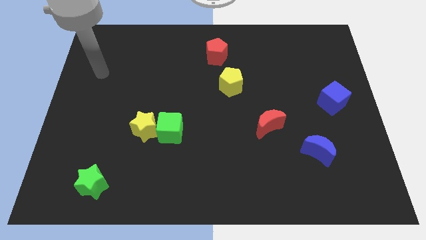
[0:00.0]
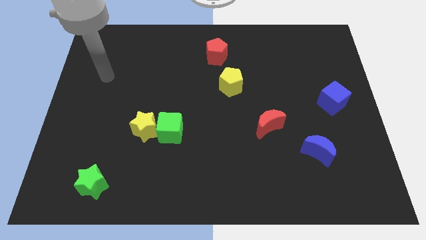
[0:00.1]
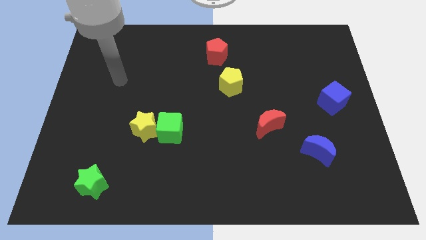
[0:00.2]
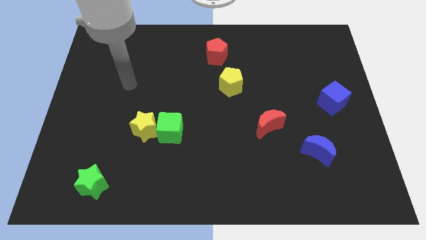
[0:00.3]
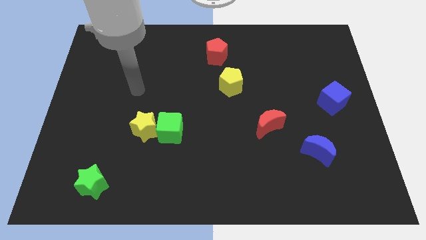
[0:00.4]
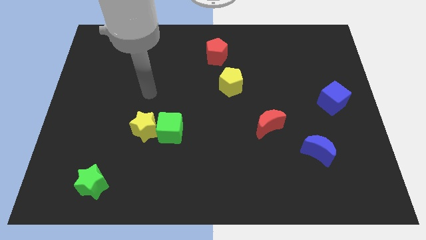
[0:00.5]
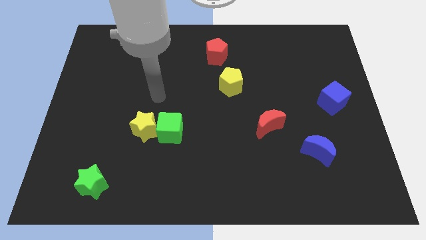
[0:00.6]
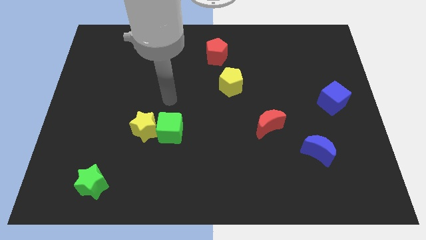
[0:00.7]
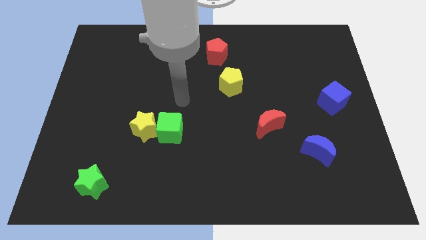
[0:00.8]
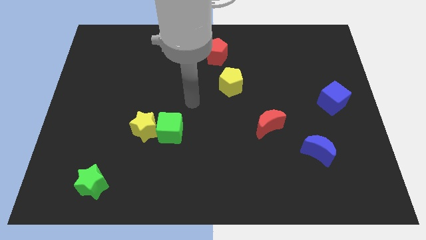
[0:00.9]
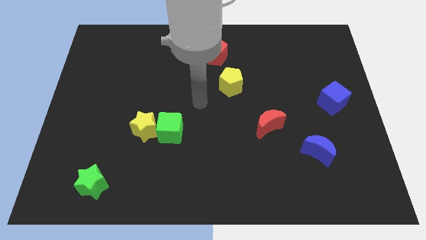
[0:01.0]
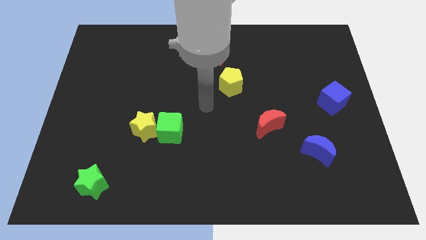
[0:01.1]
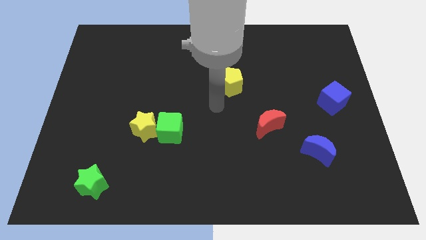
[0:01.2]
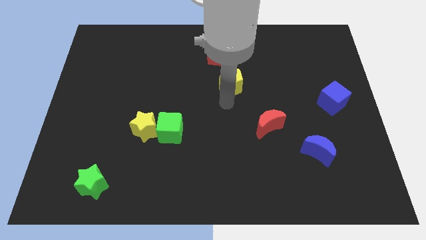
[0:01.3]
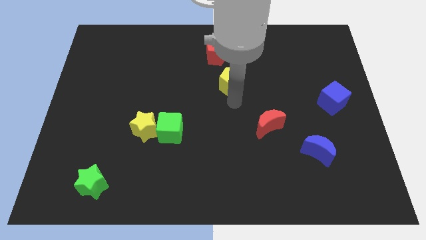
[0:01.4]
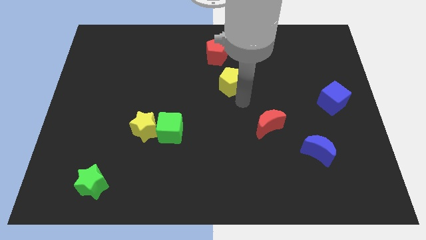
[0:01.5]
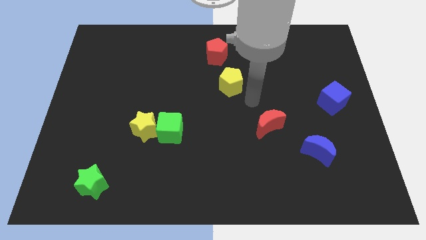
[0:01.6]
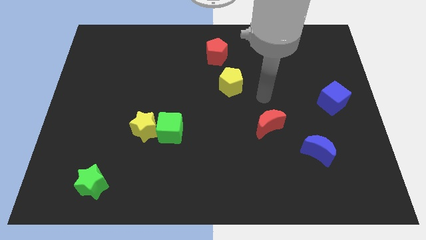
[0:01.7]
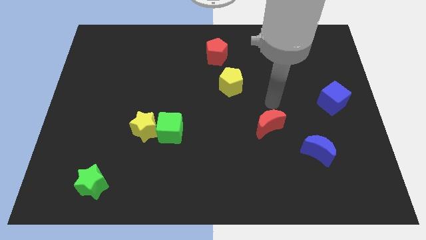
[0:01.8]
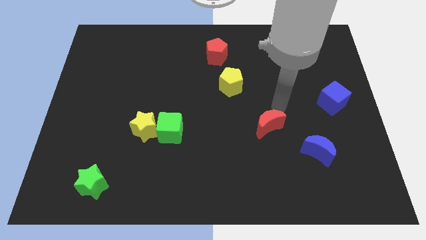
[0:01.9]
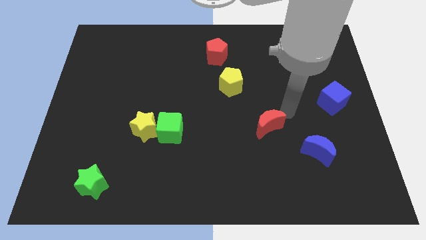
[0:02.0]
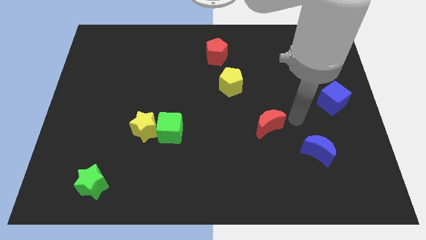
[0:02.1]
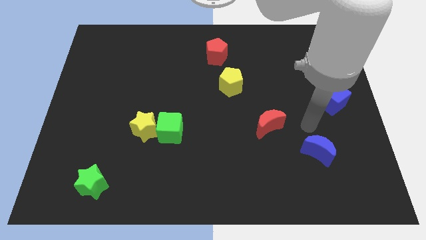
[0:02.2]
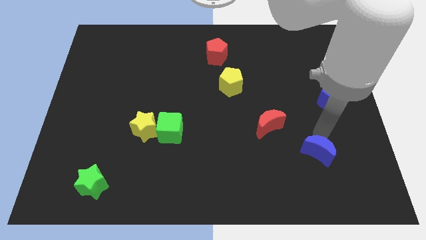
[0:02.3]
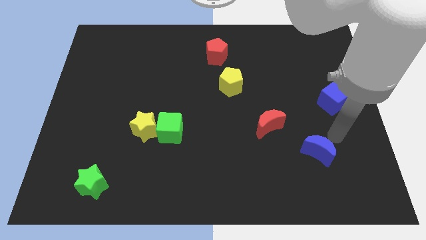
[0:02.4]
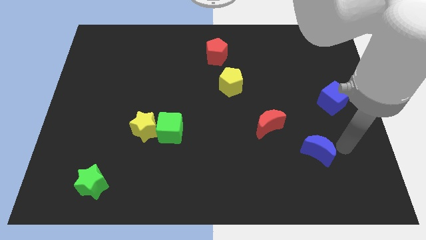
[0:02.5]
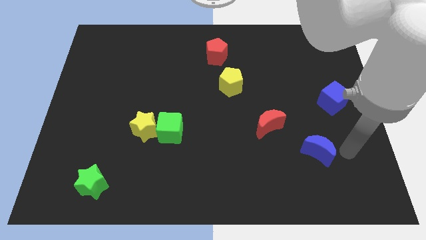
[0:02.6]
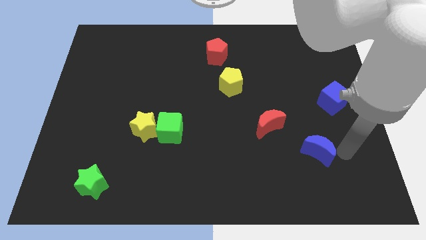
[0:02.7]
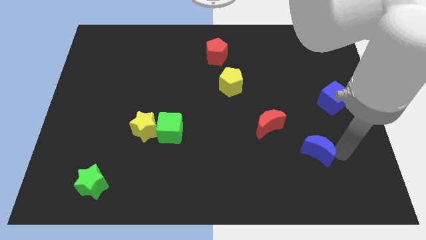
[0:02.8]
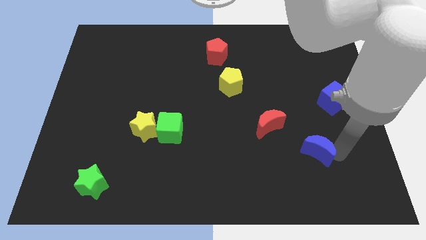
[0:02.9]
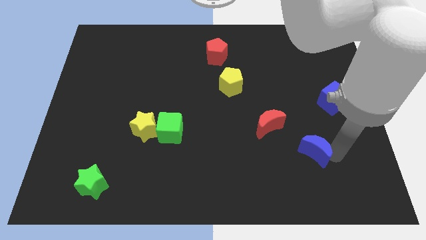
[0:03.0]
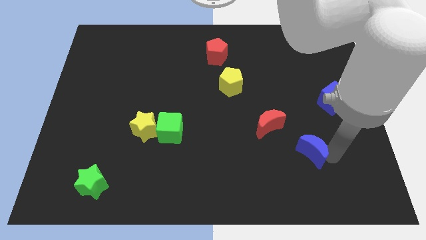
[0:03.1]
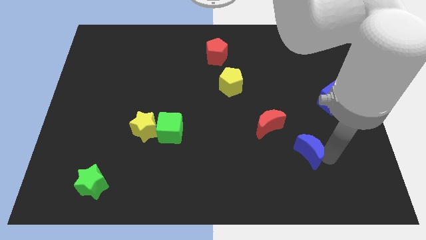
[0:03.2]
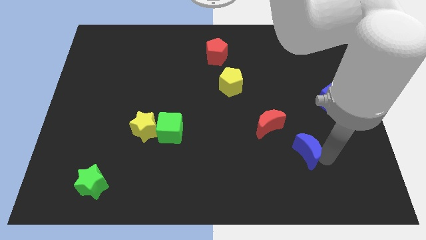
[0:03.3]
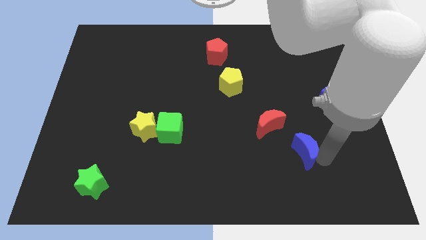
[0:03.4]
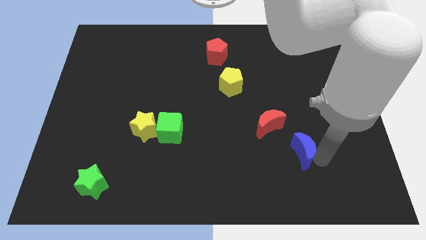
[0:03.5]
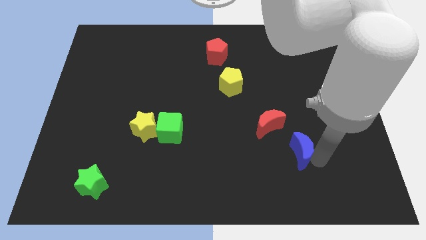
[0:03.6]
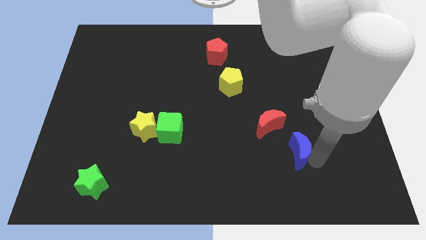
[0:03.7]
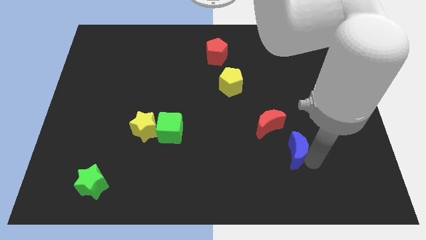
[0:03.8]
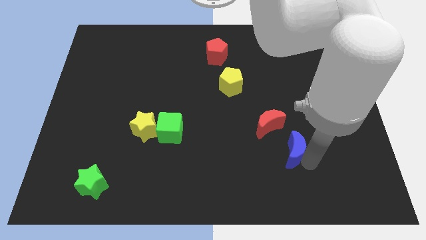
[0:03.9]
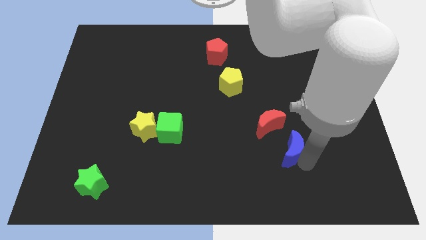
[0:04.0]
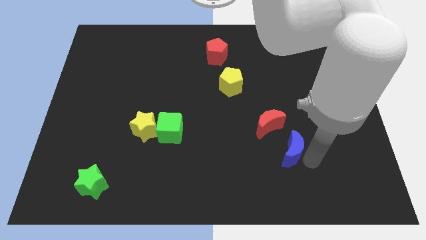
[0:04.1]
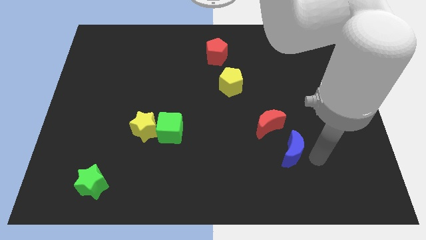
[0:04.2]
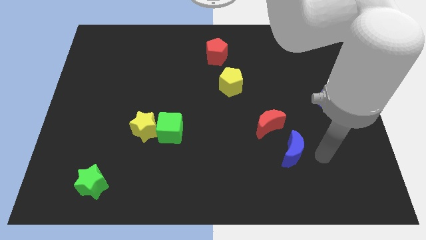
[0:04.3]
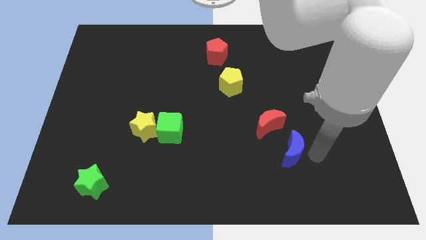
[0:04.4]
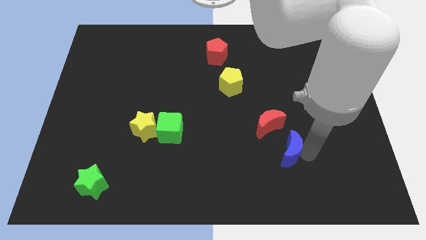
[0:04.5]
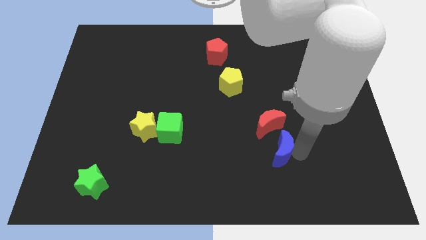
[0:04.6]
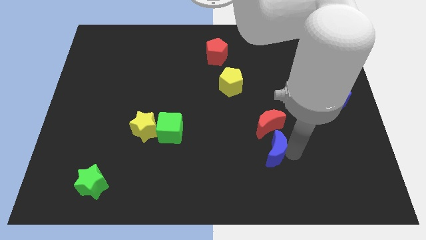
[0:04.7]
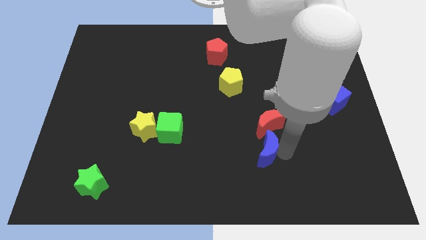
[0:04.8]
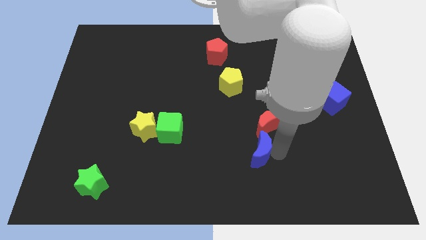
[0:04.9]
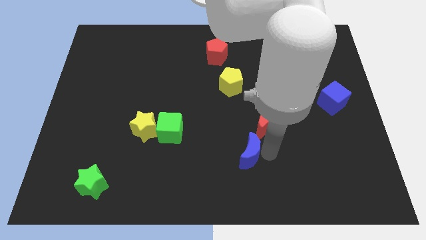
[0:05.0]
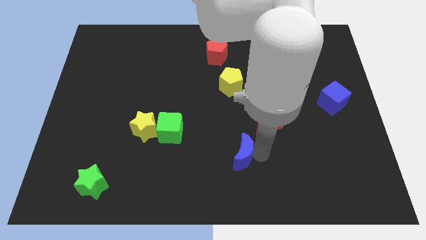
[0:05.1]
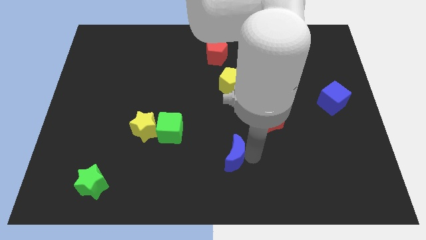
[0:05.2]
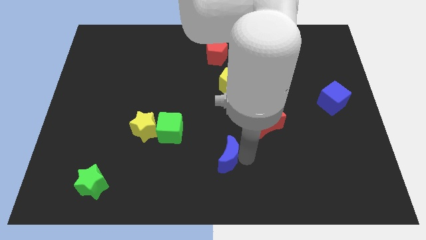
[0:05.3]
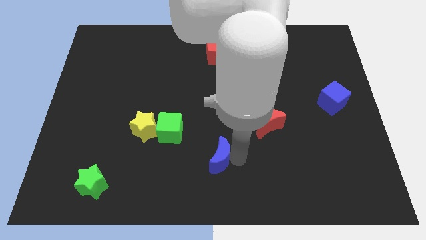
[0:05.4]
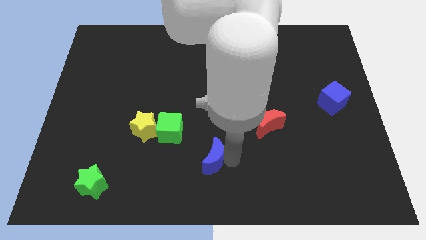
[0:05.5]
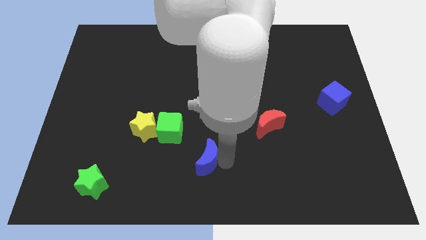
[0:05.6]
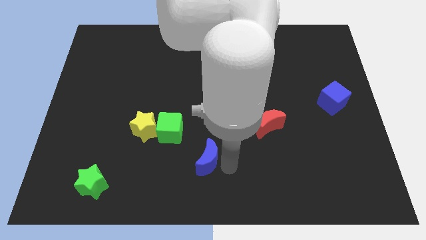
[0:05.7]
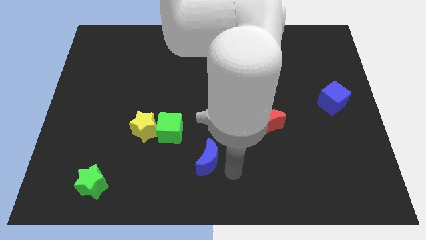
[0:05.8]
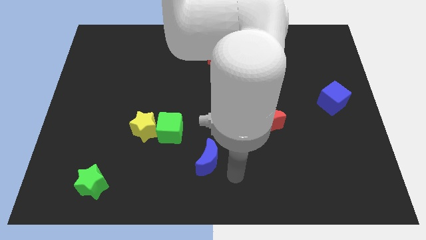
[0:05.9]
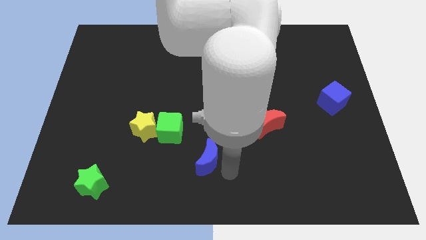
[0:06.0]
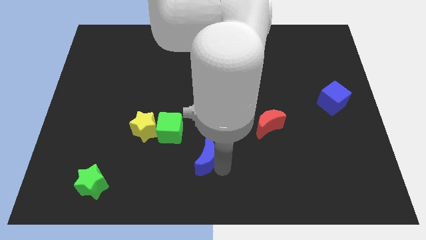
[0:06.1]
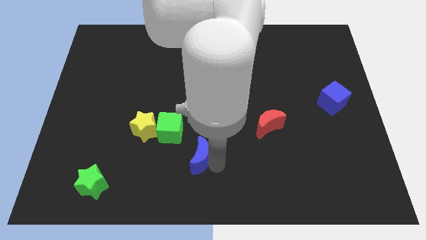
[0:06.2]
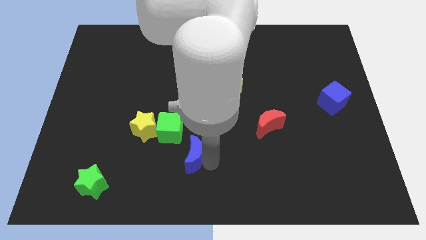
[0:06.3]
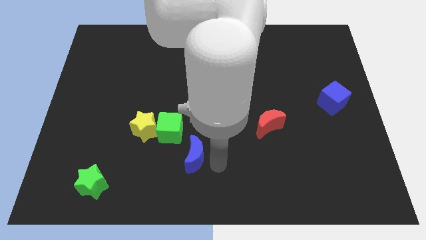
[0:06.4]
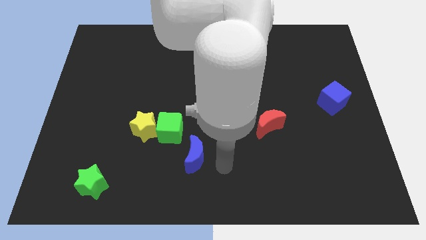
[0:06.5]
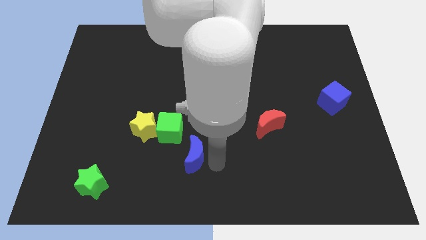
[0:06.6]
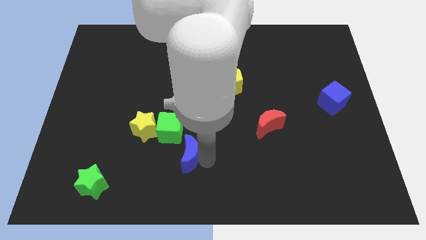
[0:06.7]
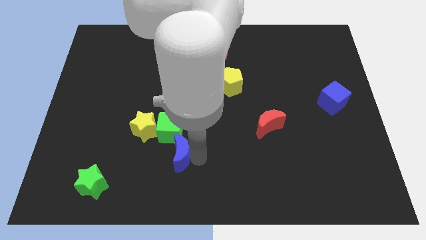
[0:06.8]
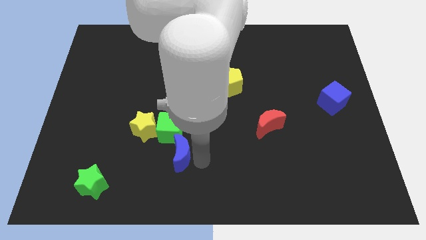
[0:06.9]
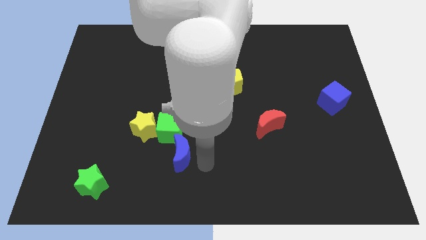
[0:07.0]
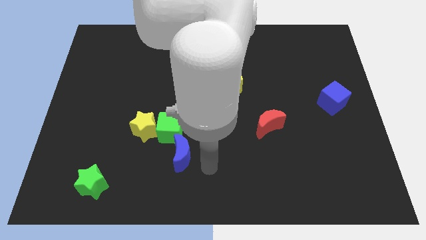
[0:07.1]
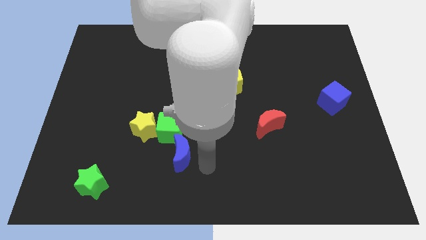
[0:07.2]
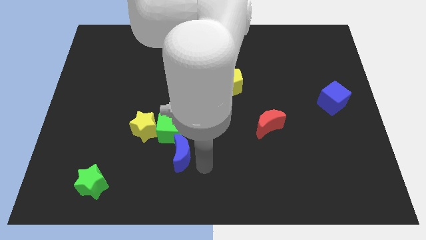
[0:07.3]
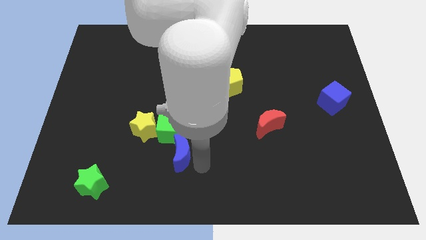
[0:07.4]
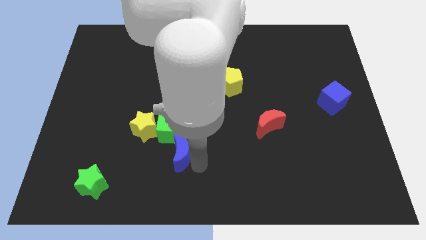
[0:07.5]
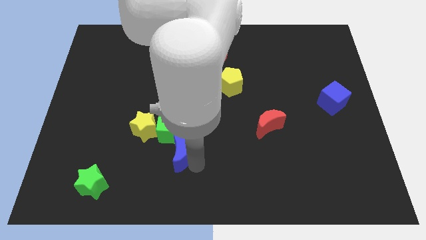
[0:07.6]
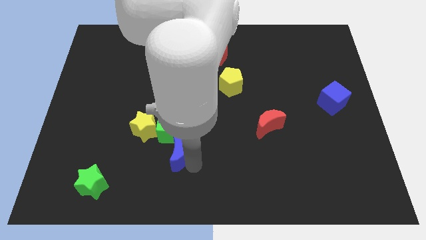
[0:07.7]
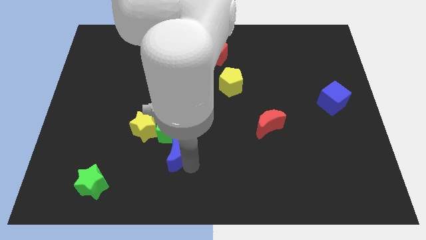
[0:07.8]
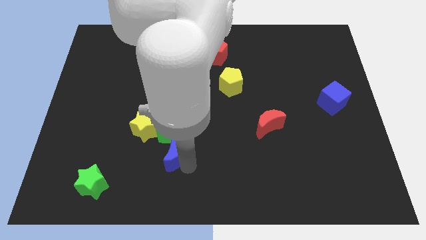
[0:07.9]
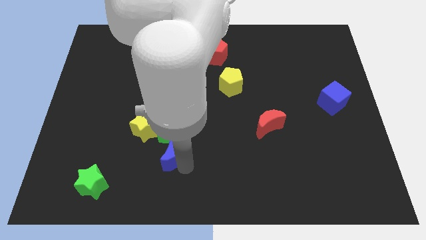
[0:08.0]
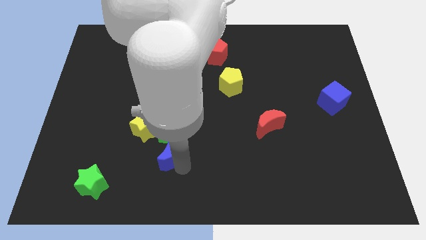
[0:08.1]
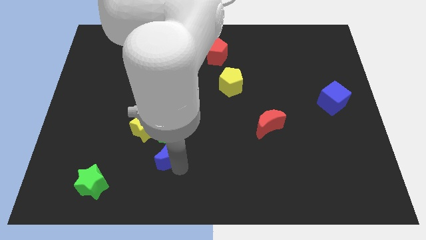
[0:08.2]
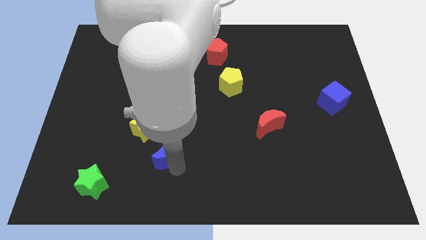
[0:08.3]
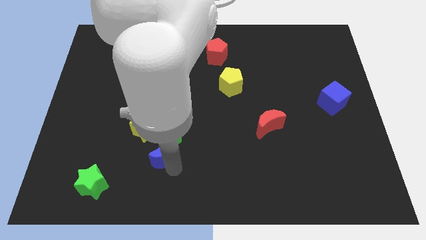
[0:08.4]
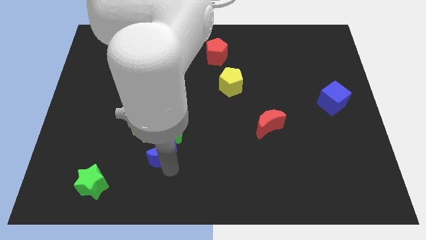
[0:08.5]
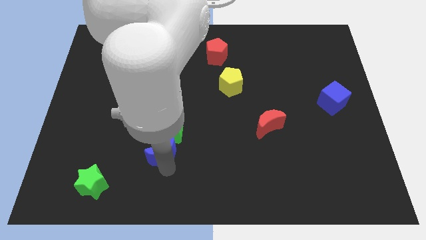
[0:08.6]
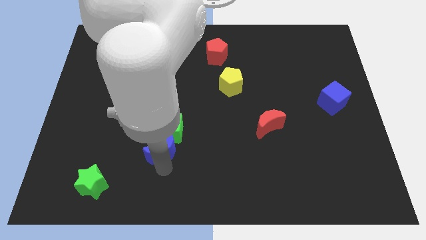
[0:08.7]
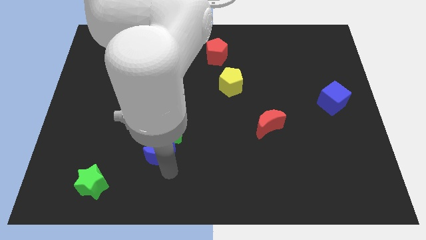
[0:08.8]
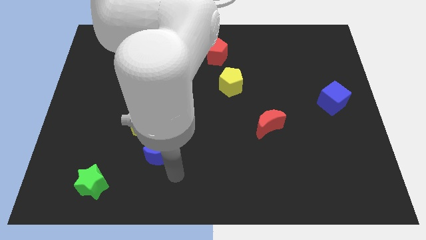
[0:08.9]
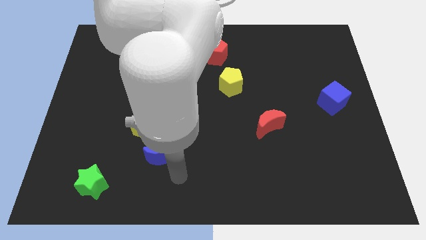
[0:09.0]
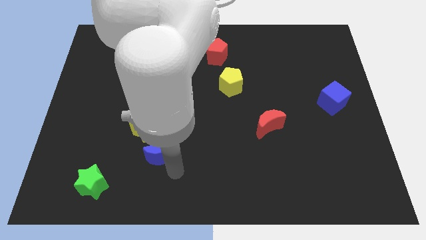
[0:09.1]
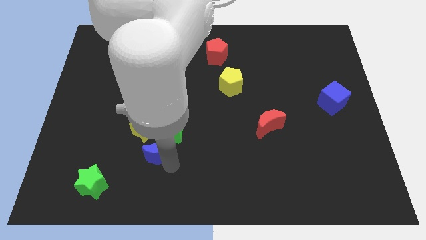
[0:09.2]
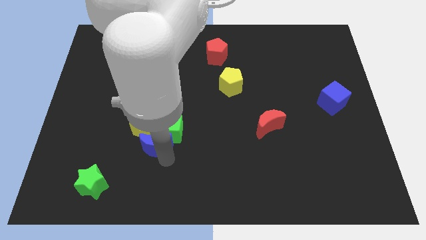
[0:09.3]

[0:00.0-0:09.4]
push the blue moon close to the yellow star
